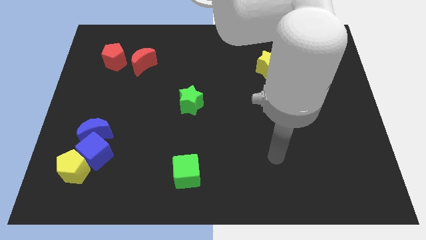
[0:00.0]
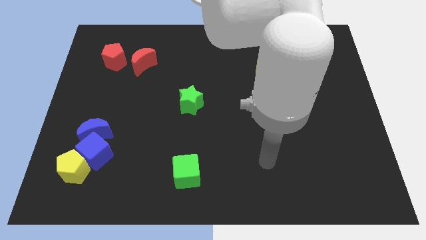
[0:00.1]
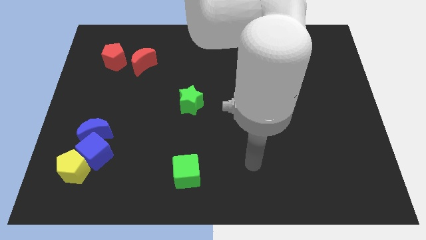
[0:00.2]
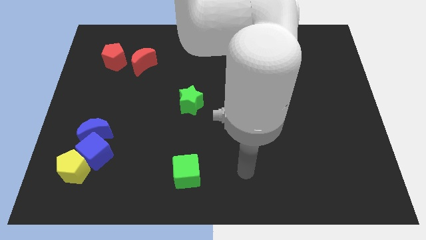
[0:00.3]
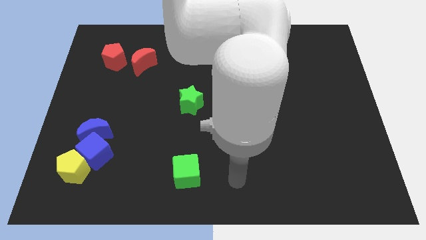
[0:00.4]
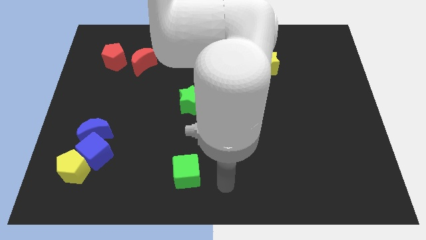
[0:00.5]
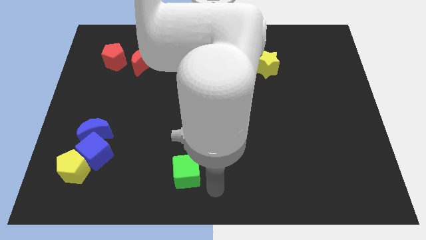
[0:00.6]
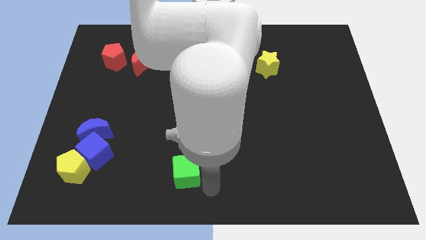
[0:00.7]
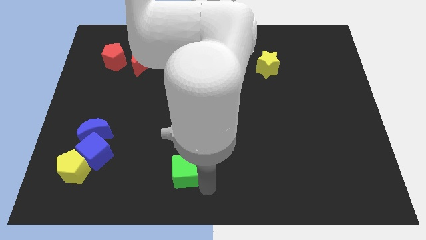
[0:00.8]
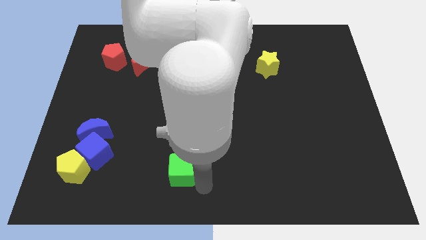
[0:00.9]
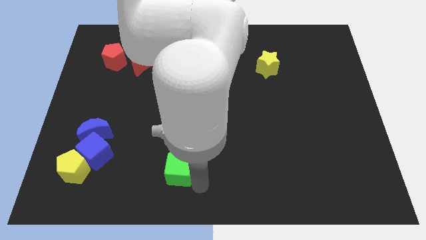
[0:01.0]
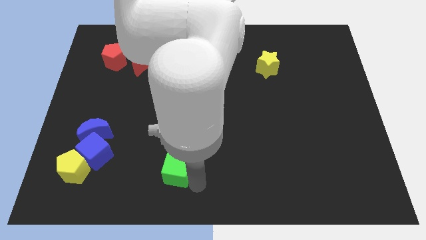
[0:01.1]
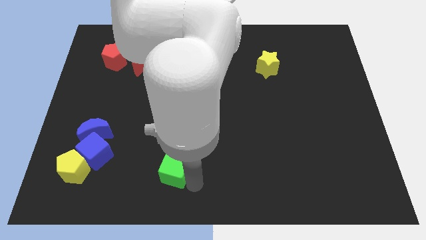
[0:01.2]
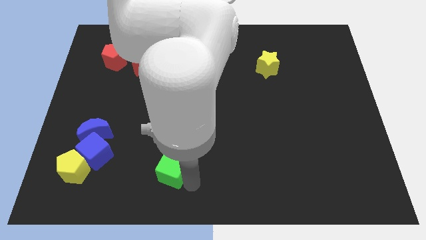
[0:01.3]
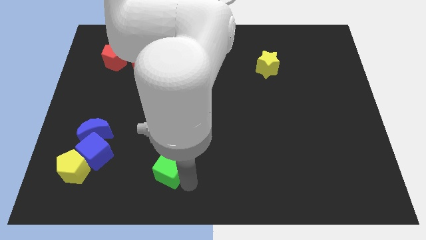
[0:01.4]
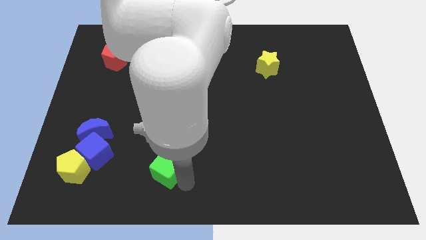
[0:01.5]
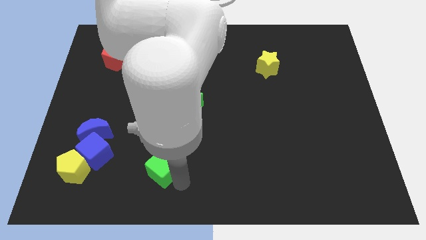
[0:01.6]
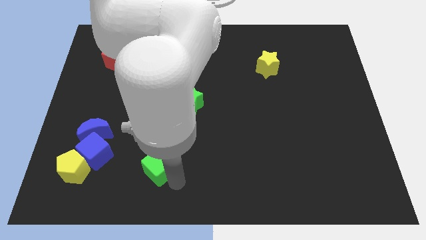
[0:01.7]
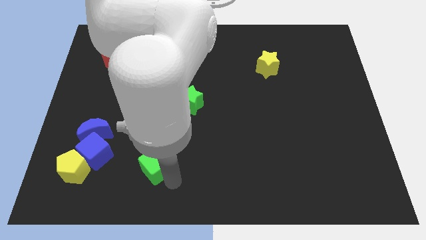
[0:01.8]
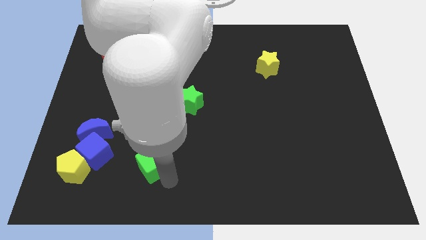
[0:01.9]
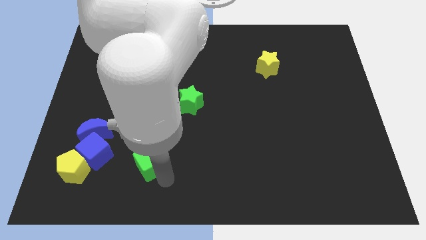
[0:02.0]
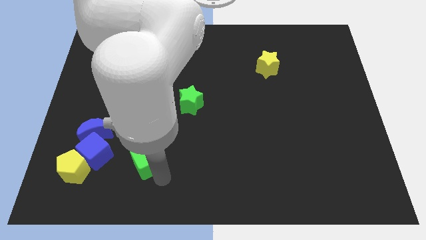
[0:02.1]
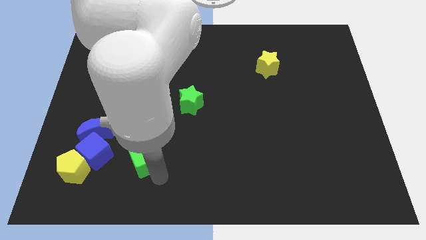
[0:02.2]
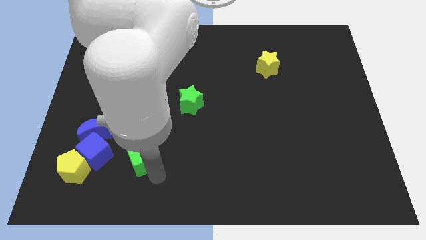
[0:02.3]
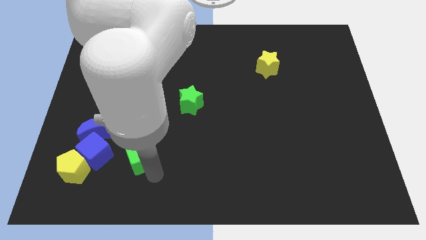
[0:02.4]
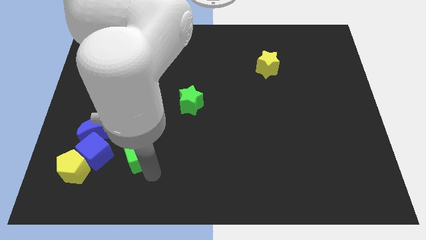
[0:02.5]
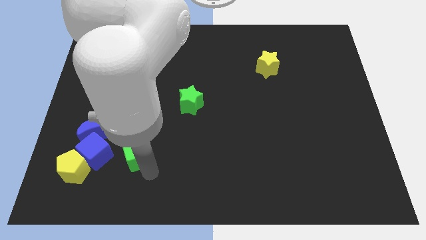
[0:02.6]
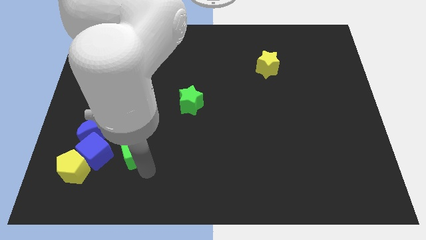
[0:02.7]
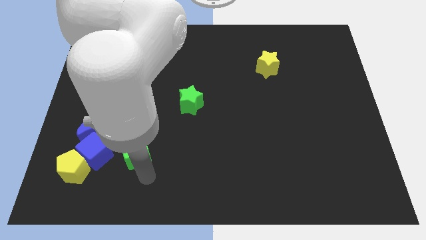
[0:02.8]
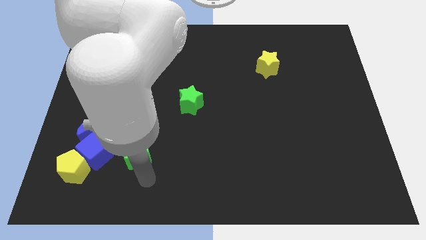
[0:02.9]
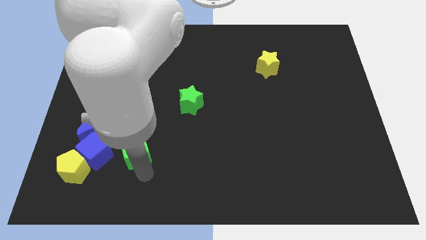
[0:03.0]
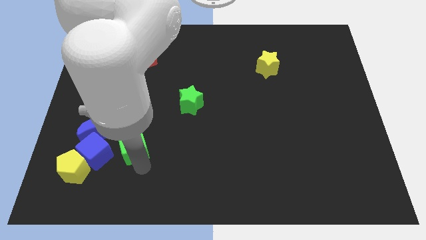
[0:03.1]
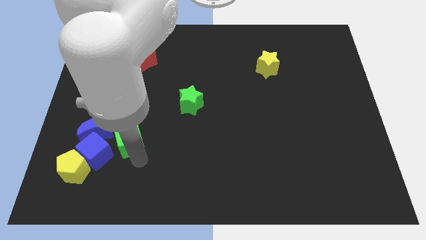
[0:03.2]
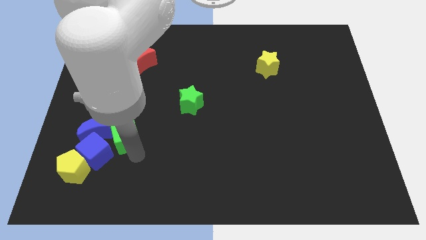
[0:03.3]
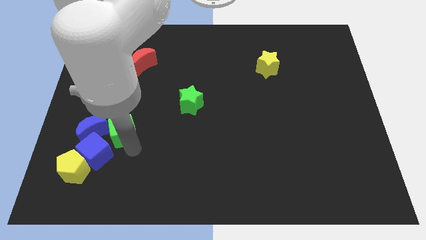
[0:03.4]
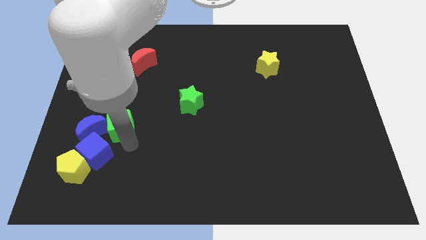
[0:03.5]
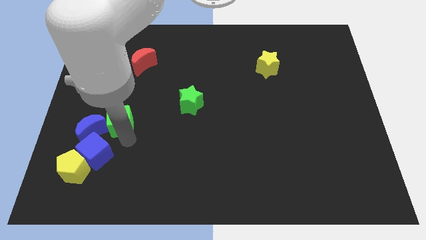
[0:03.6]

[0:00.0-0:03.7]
move the green cube diagonally up and left

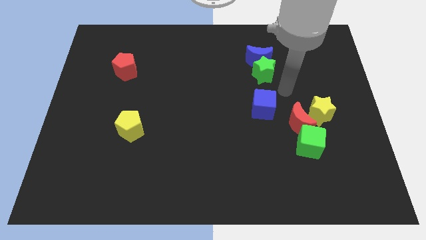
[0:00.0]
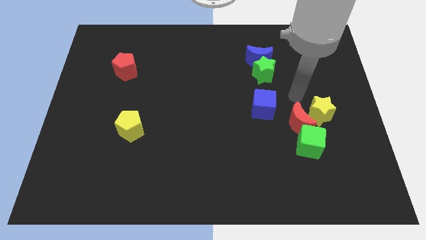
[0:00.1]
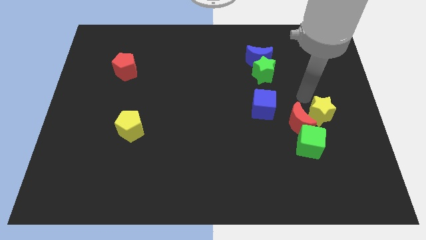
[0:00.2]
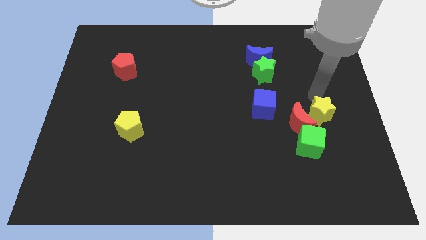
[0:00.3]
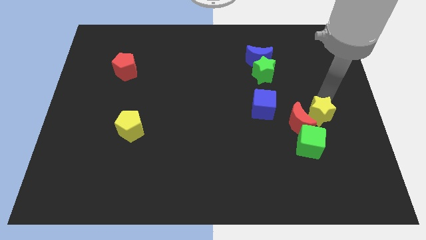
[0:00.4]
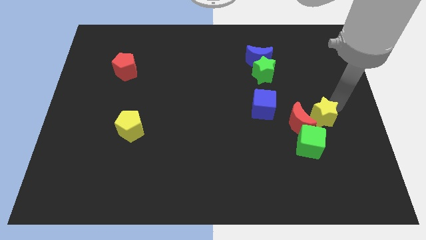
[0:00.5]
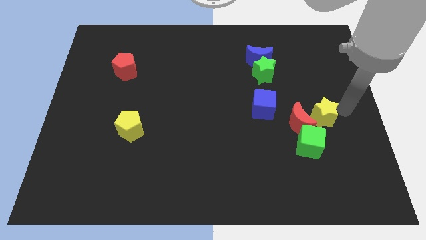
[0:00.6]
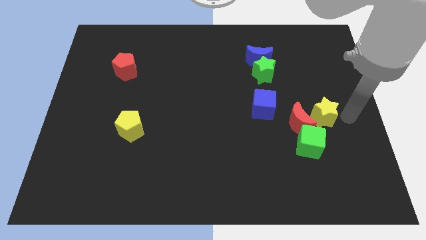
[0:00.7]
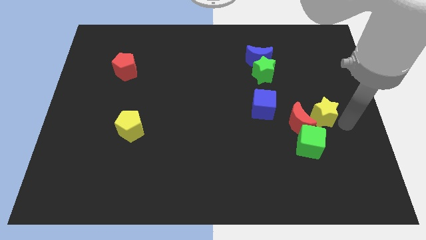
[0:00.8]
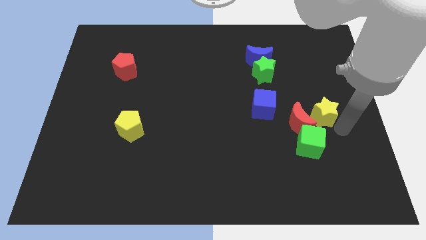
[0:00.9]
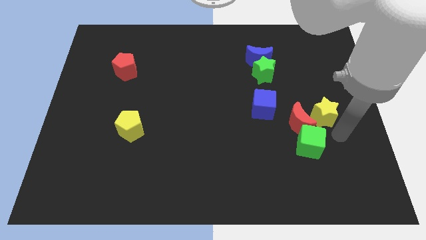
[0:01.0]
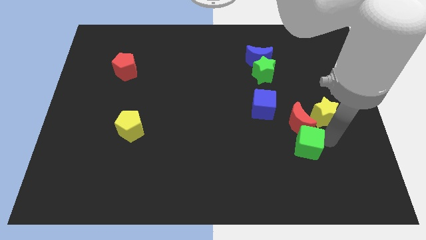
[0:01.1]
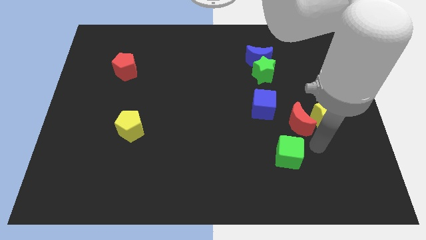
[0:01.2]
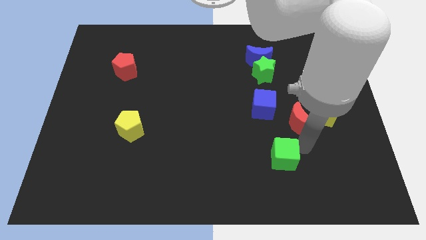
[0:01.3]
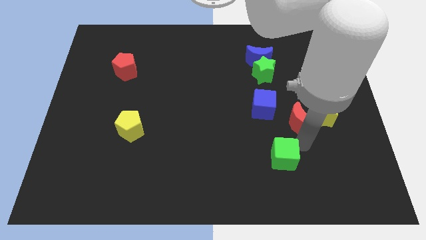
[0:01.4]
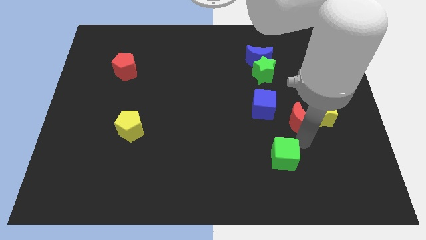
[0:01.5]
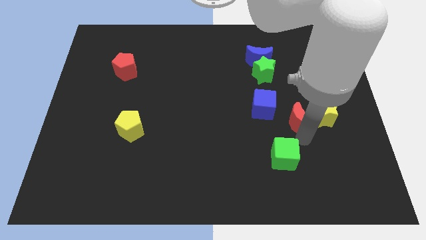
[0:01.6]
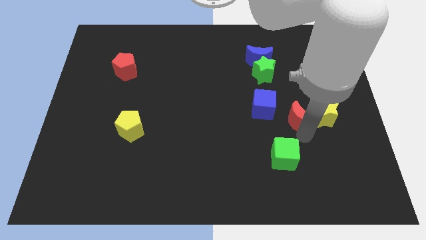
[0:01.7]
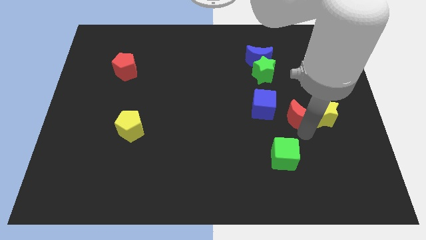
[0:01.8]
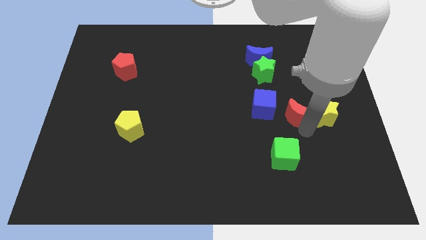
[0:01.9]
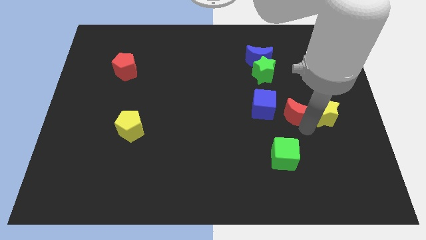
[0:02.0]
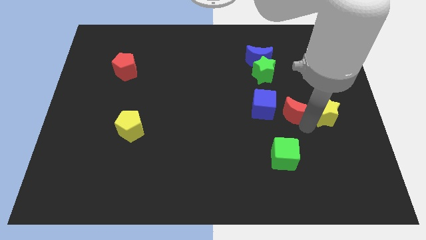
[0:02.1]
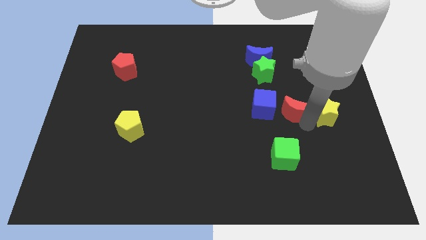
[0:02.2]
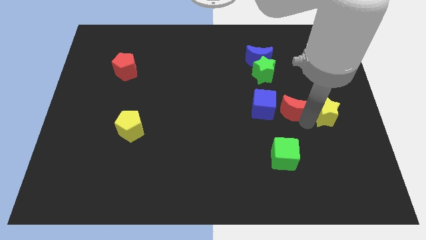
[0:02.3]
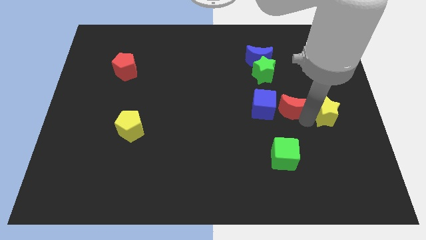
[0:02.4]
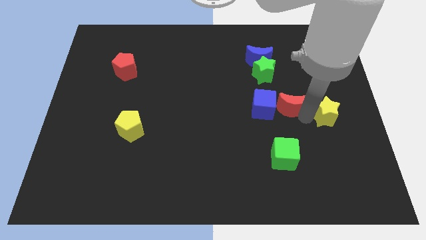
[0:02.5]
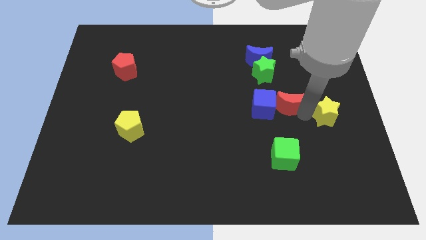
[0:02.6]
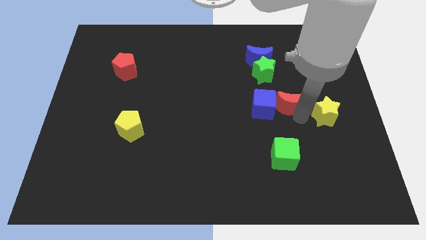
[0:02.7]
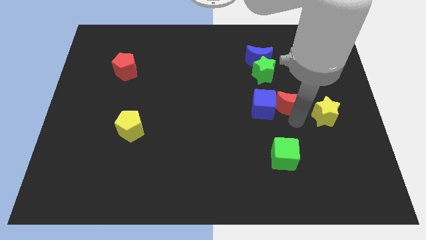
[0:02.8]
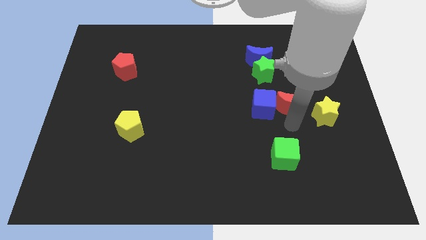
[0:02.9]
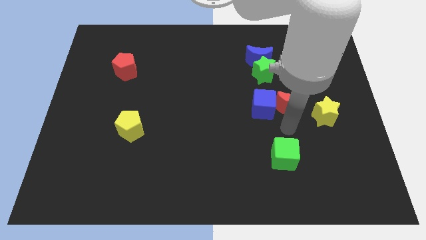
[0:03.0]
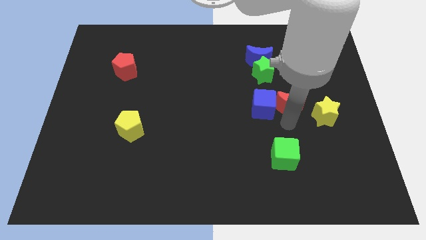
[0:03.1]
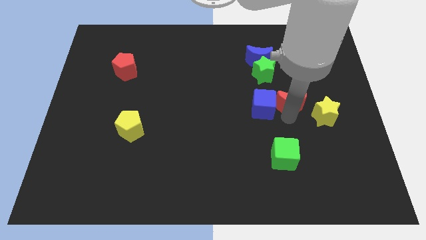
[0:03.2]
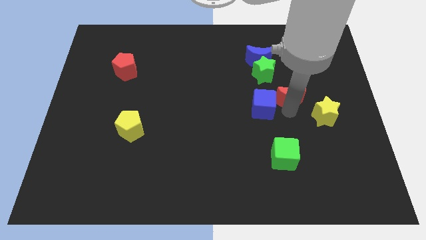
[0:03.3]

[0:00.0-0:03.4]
push the red moon a bit upwards

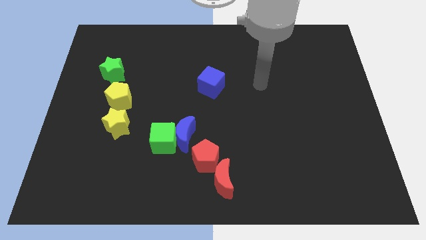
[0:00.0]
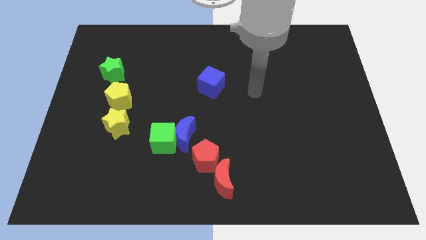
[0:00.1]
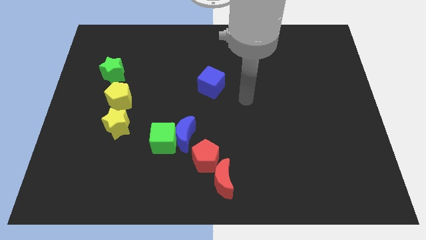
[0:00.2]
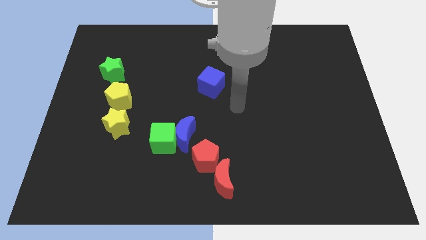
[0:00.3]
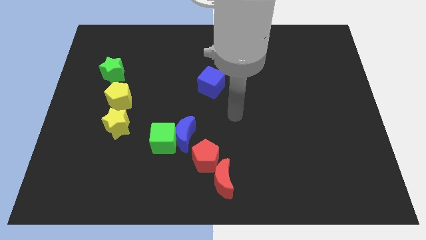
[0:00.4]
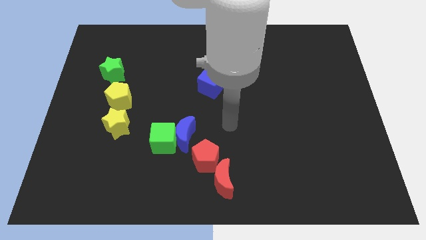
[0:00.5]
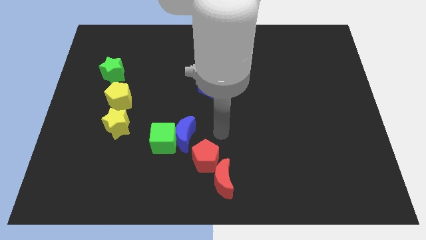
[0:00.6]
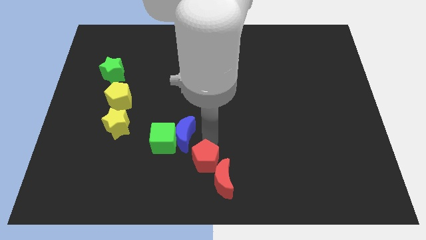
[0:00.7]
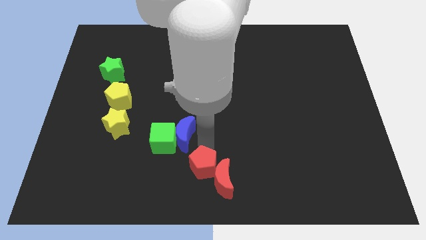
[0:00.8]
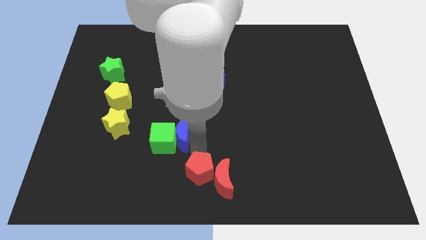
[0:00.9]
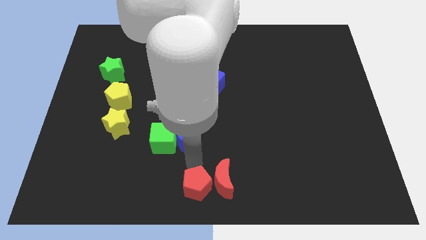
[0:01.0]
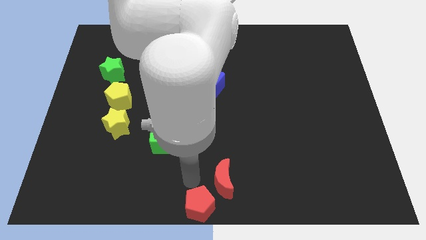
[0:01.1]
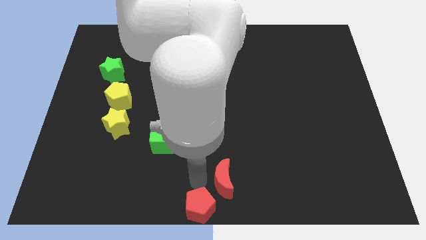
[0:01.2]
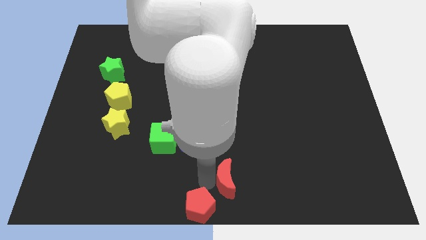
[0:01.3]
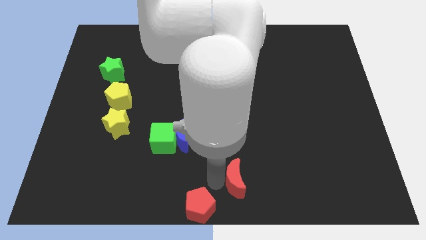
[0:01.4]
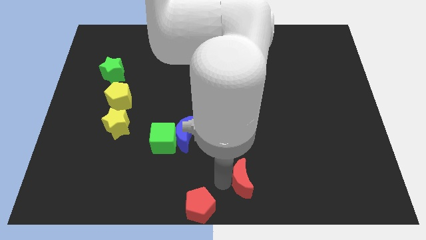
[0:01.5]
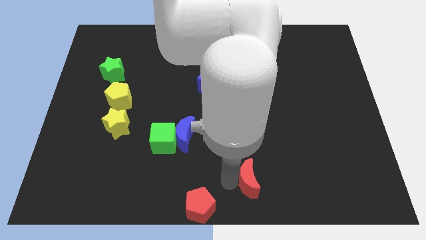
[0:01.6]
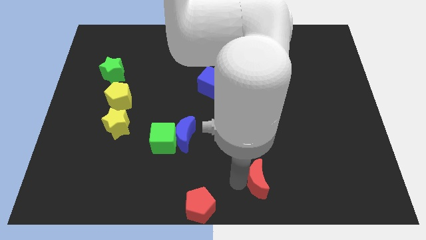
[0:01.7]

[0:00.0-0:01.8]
move the red moon a bit right
